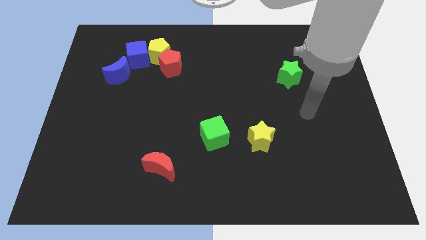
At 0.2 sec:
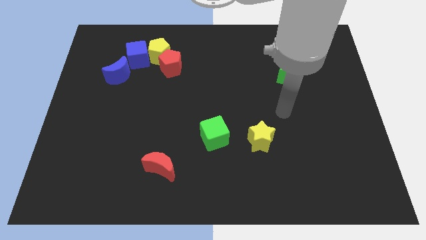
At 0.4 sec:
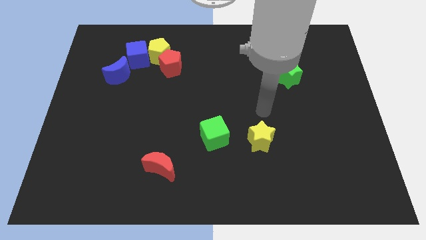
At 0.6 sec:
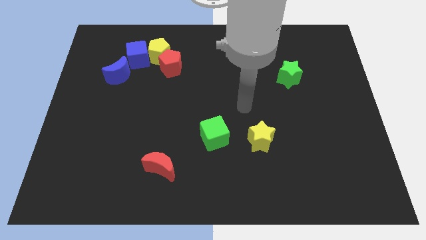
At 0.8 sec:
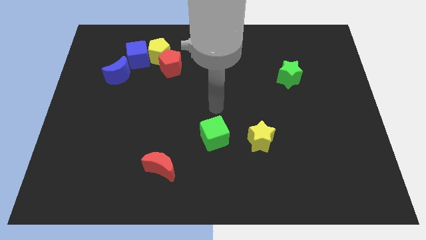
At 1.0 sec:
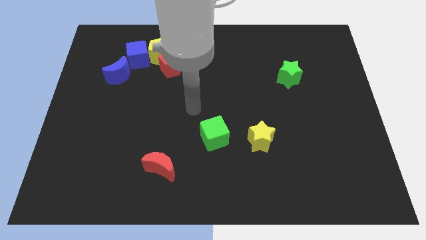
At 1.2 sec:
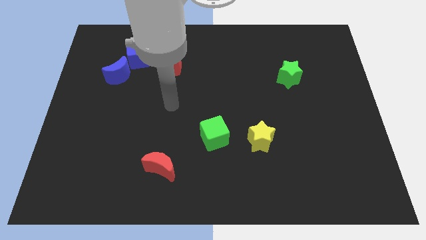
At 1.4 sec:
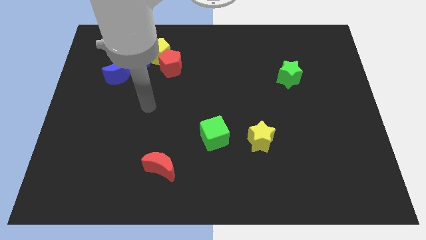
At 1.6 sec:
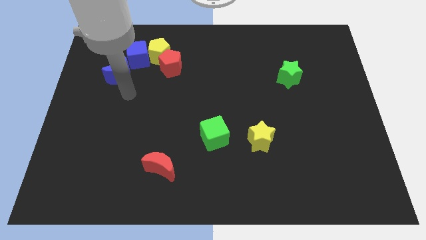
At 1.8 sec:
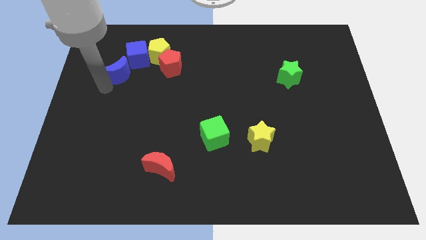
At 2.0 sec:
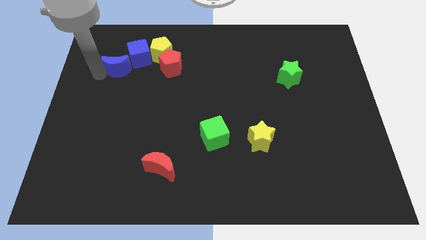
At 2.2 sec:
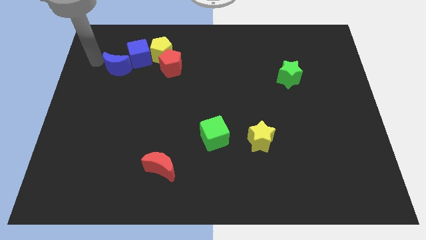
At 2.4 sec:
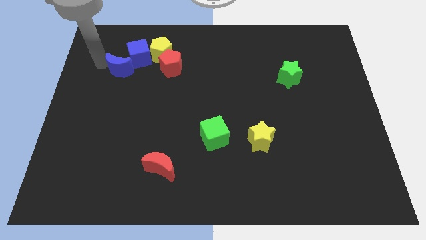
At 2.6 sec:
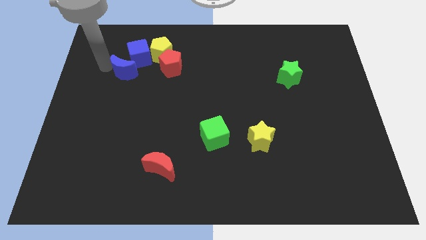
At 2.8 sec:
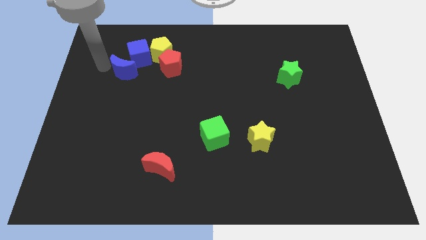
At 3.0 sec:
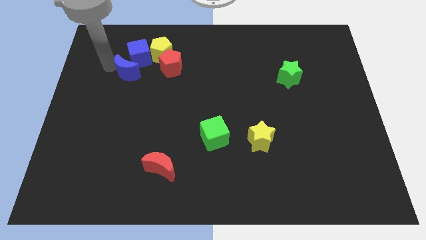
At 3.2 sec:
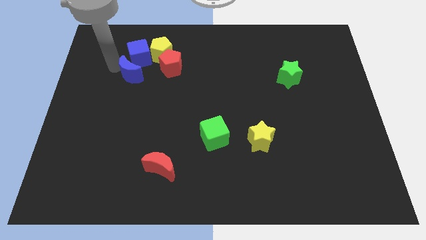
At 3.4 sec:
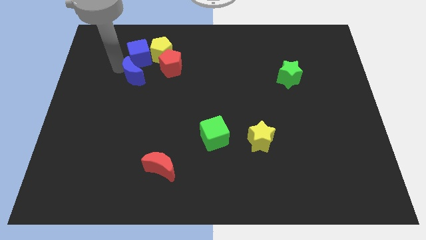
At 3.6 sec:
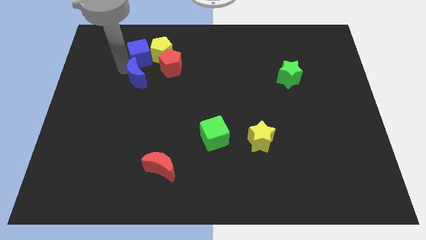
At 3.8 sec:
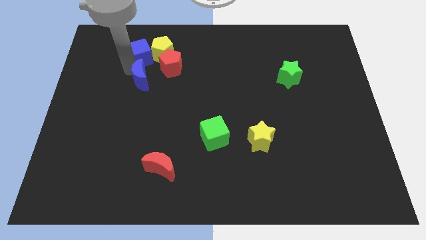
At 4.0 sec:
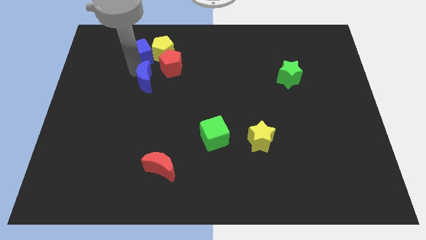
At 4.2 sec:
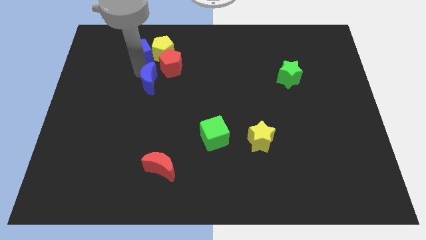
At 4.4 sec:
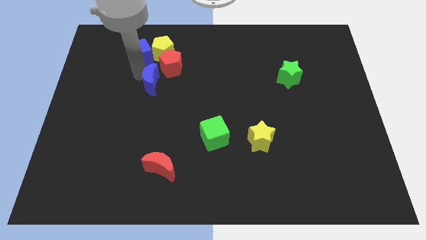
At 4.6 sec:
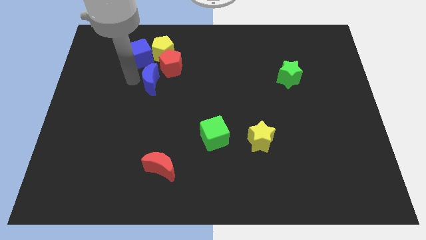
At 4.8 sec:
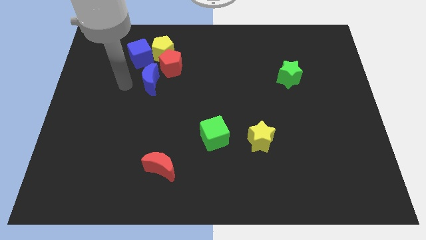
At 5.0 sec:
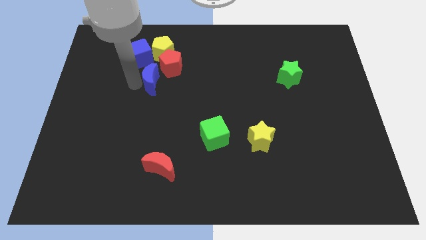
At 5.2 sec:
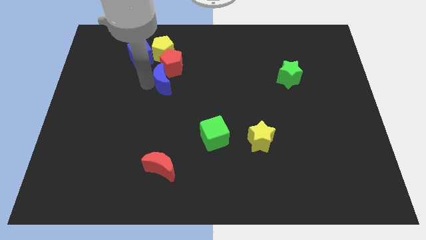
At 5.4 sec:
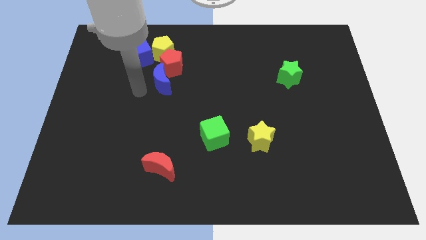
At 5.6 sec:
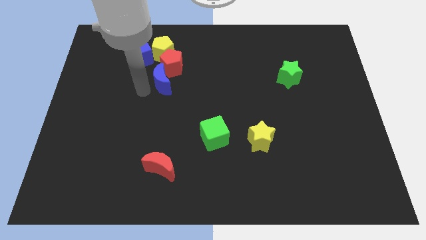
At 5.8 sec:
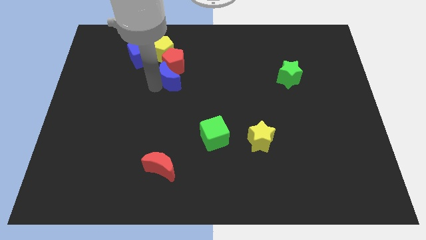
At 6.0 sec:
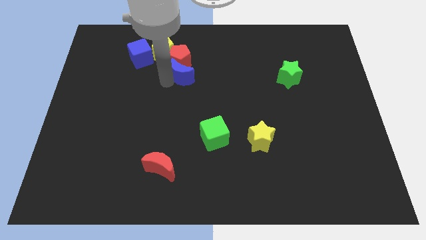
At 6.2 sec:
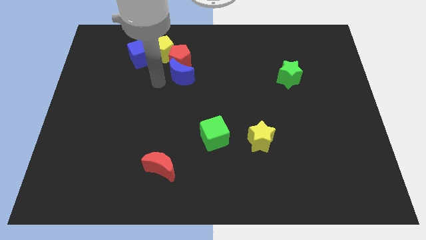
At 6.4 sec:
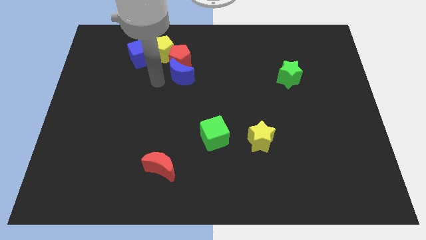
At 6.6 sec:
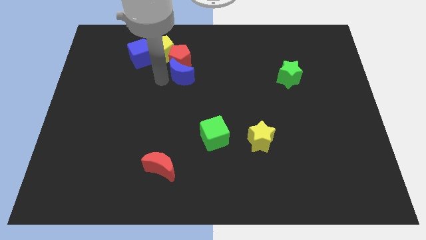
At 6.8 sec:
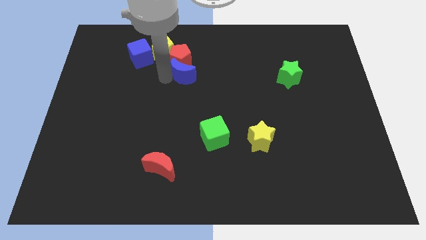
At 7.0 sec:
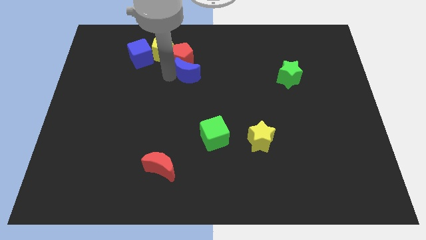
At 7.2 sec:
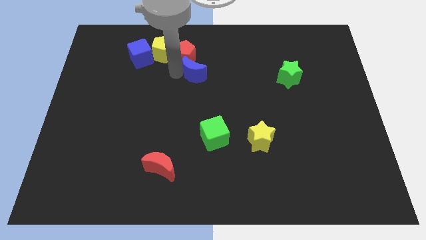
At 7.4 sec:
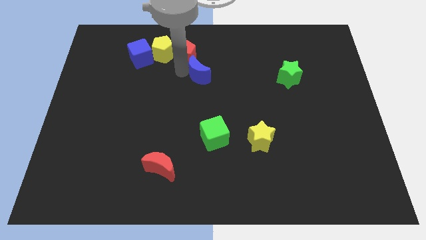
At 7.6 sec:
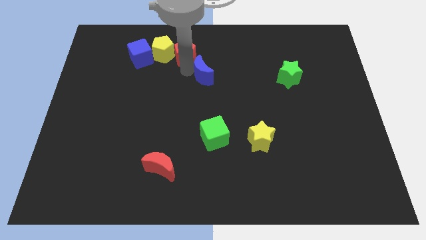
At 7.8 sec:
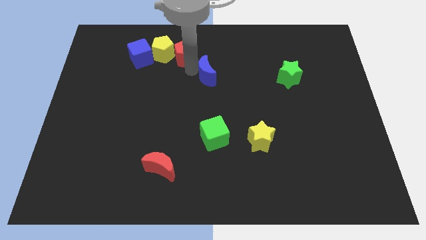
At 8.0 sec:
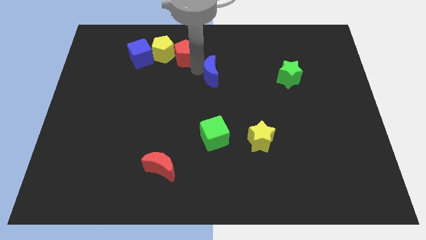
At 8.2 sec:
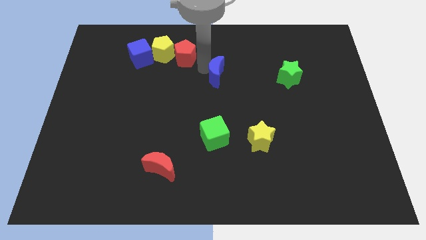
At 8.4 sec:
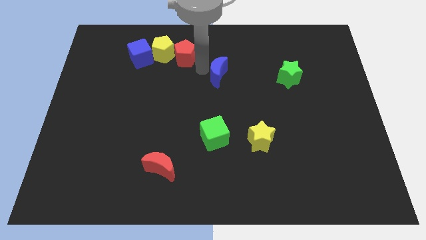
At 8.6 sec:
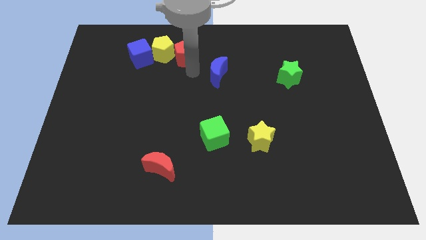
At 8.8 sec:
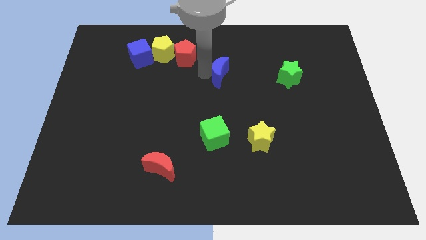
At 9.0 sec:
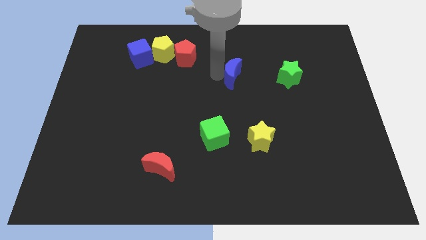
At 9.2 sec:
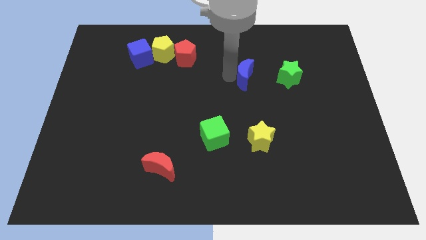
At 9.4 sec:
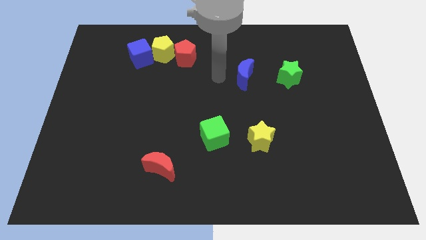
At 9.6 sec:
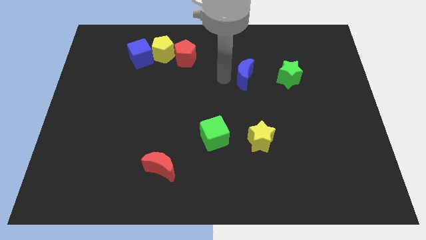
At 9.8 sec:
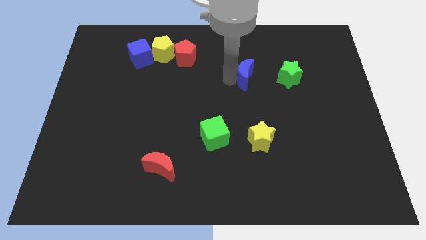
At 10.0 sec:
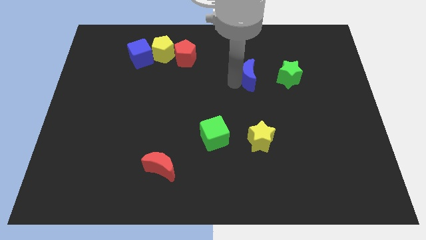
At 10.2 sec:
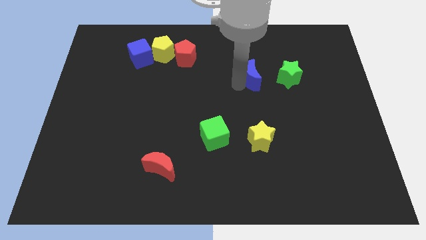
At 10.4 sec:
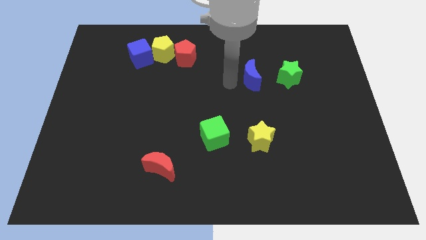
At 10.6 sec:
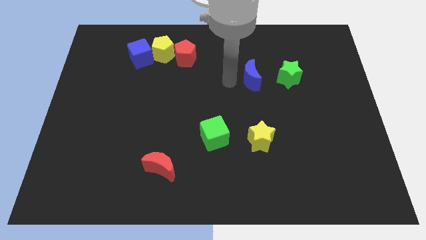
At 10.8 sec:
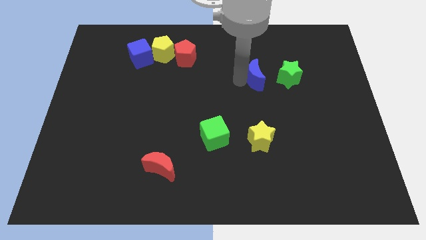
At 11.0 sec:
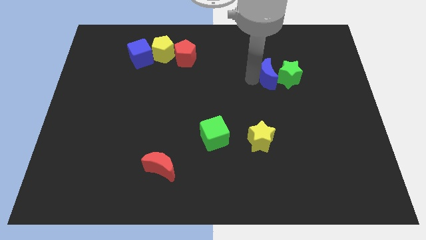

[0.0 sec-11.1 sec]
put the blue moon next to the green star

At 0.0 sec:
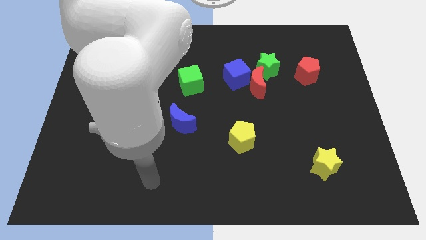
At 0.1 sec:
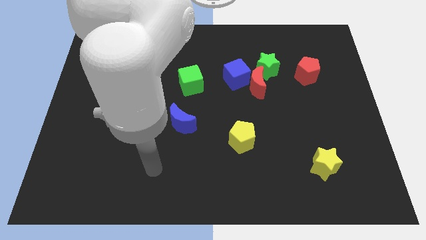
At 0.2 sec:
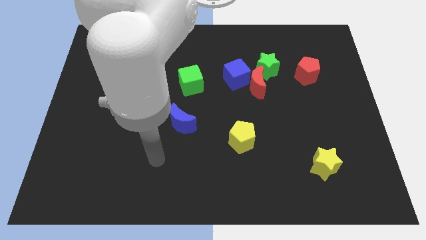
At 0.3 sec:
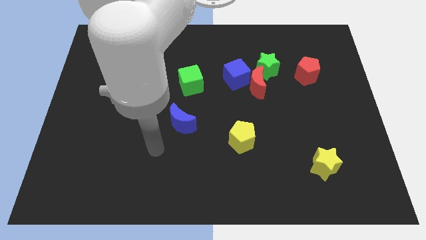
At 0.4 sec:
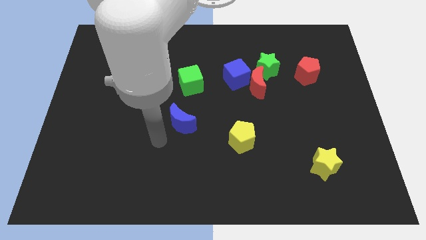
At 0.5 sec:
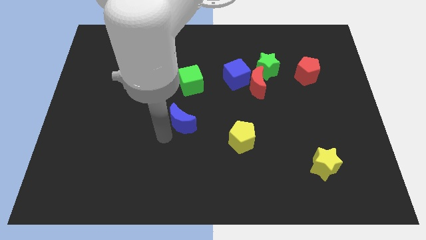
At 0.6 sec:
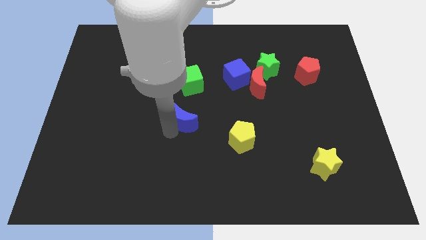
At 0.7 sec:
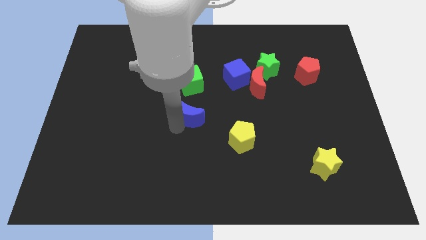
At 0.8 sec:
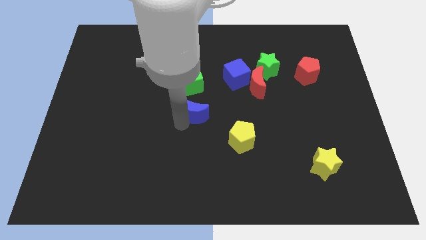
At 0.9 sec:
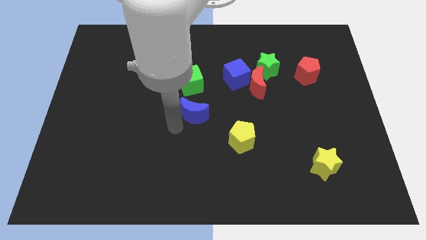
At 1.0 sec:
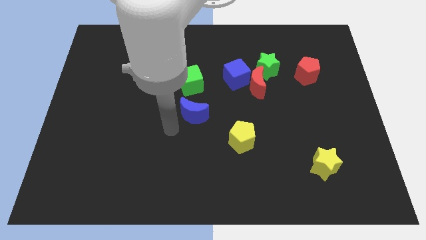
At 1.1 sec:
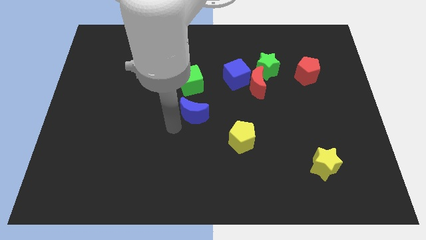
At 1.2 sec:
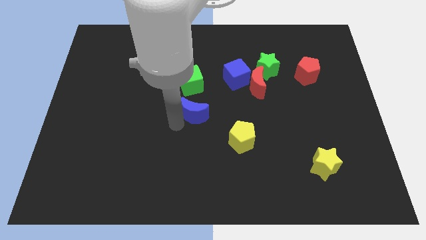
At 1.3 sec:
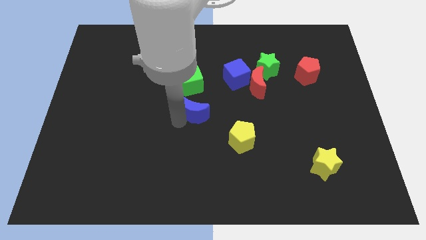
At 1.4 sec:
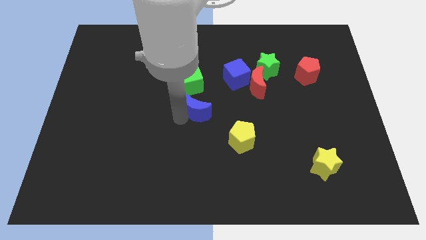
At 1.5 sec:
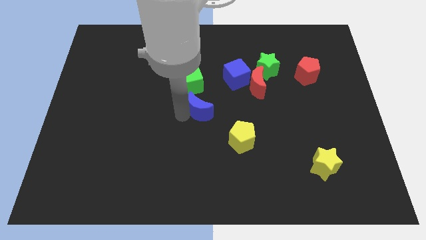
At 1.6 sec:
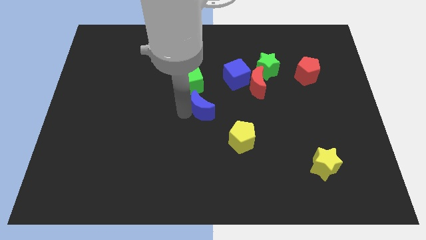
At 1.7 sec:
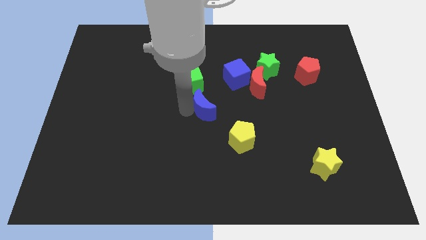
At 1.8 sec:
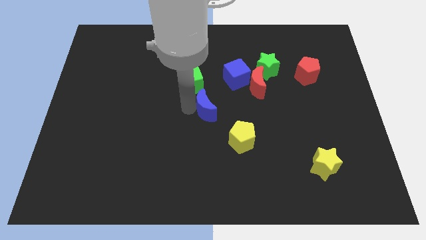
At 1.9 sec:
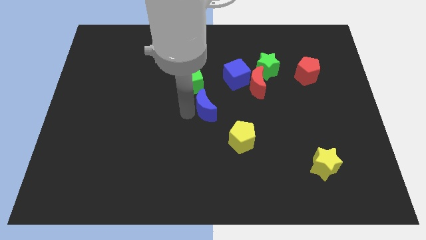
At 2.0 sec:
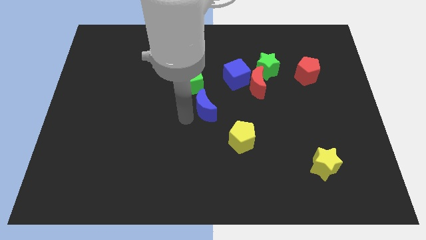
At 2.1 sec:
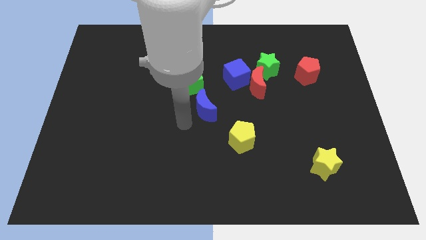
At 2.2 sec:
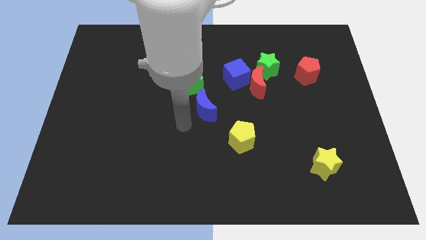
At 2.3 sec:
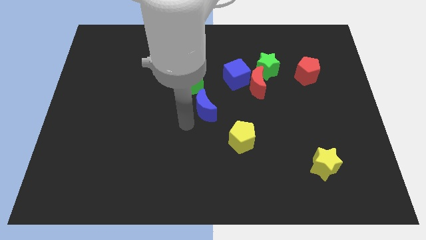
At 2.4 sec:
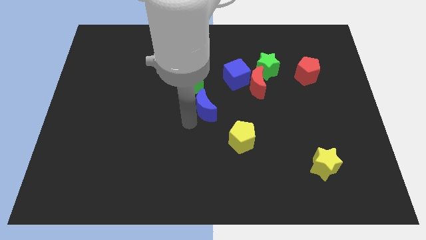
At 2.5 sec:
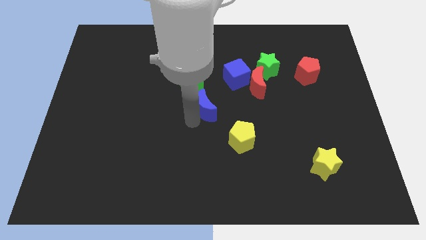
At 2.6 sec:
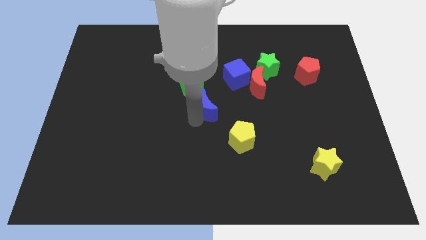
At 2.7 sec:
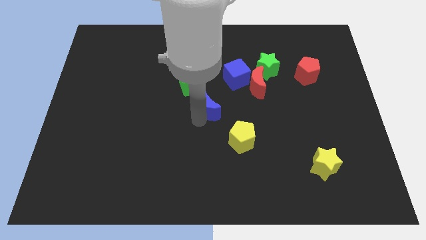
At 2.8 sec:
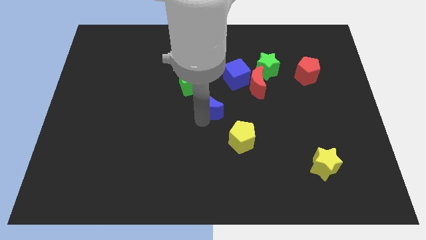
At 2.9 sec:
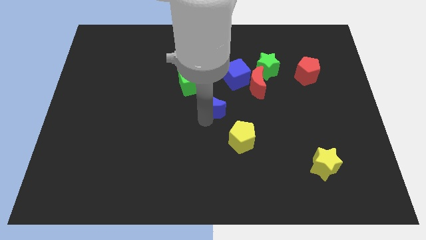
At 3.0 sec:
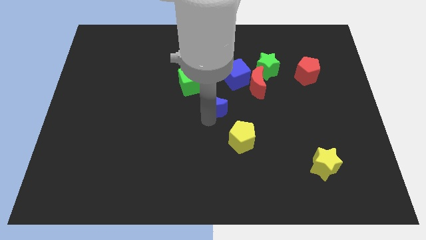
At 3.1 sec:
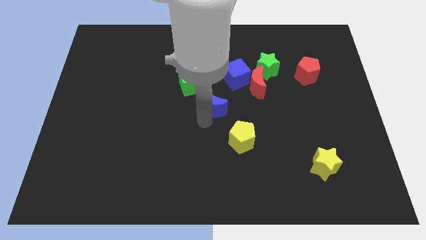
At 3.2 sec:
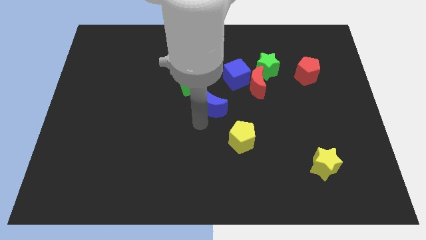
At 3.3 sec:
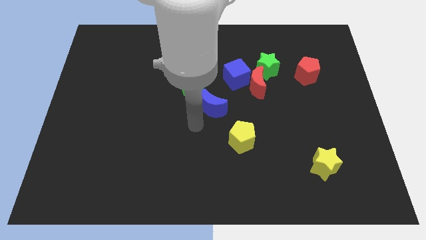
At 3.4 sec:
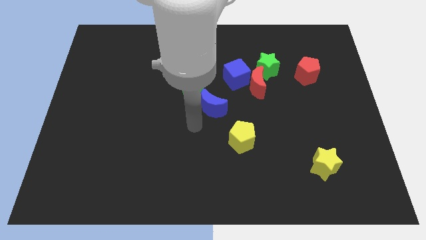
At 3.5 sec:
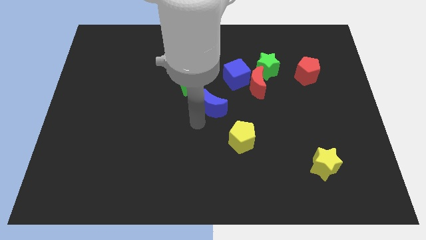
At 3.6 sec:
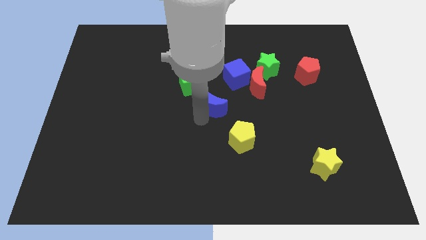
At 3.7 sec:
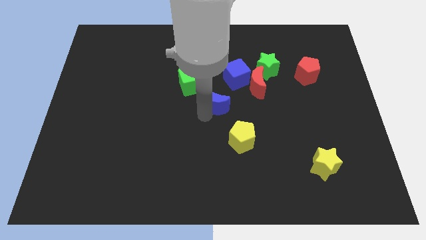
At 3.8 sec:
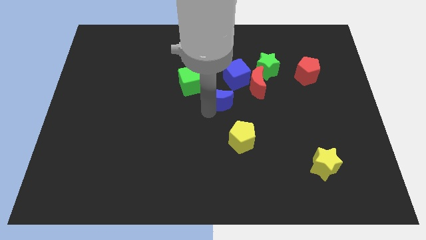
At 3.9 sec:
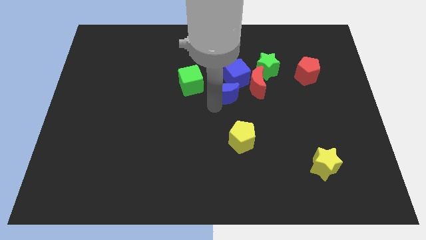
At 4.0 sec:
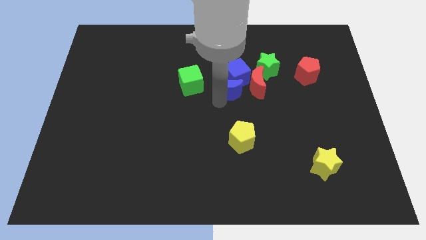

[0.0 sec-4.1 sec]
put the blue moon to the blue cube
